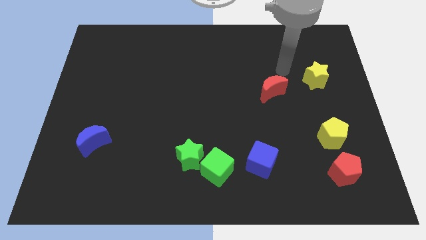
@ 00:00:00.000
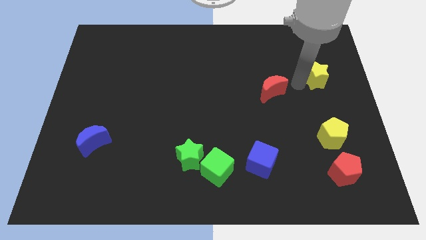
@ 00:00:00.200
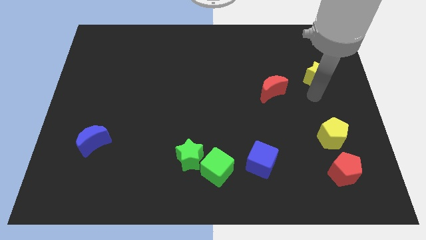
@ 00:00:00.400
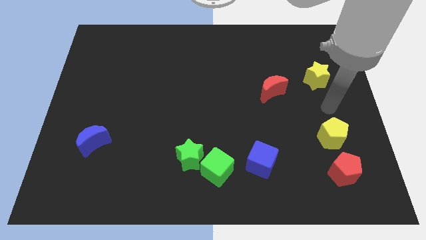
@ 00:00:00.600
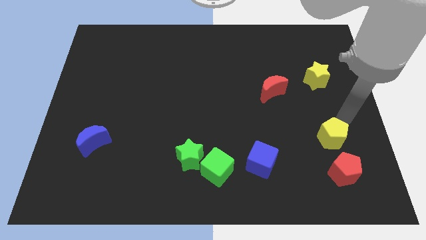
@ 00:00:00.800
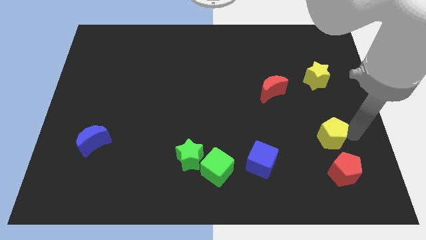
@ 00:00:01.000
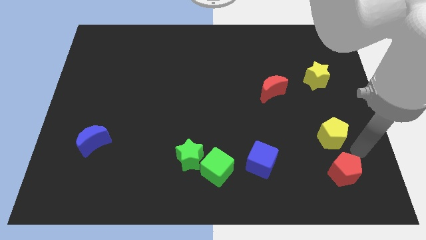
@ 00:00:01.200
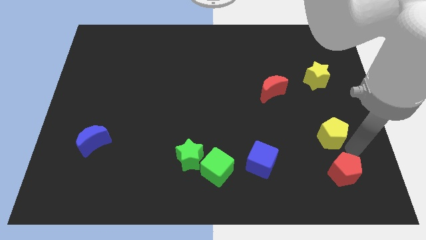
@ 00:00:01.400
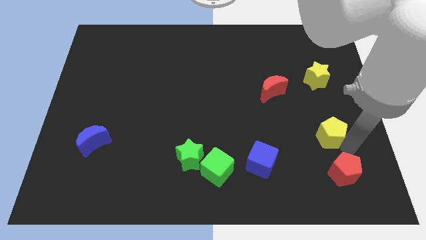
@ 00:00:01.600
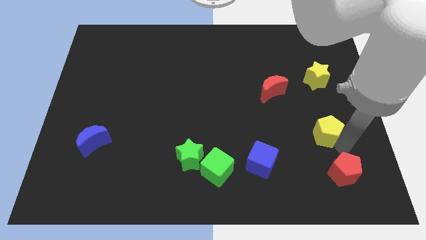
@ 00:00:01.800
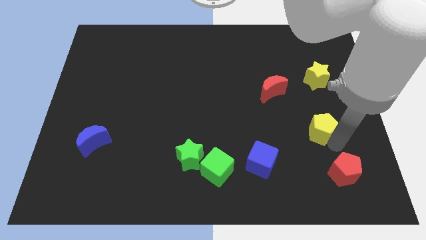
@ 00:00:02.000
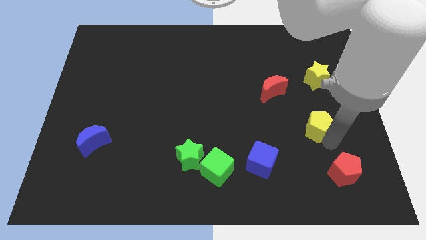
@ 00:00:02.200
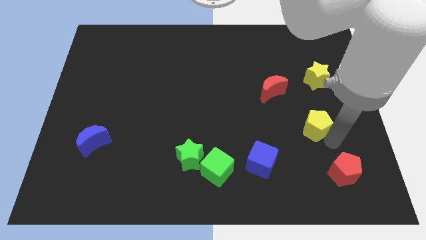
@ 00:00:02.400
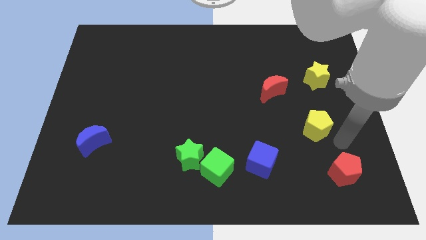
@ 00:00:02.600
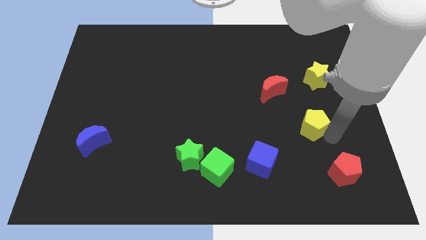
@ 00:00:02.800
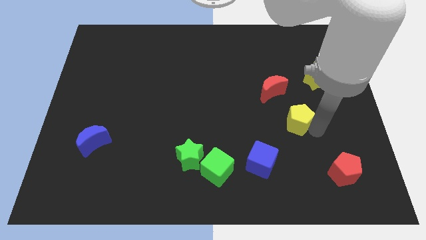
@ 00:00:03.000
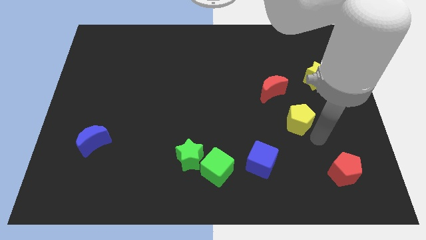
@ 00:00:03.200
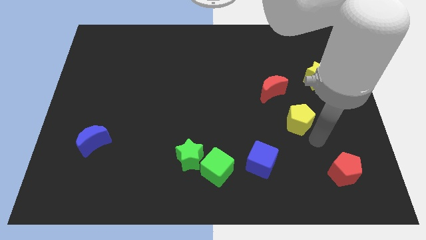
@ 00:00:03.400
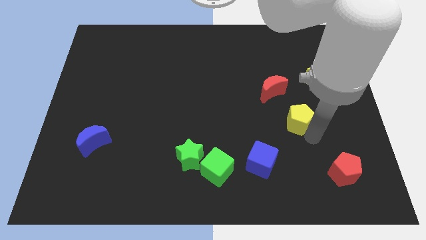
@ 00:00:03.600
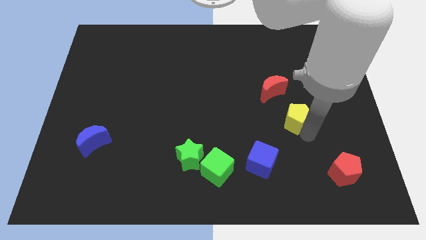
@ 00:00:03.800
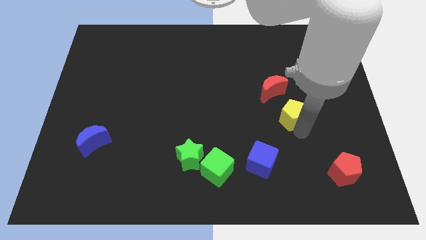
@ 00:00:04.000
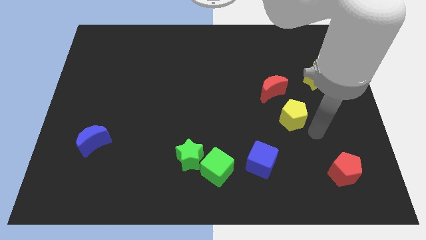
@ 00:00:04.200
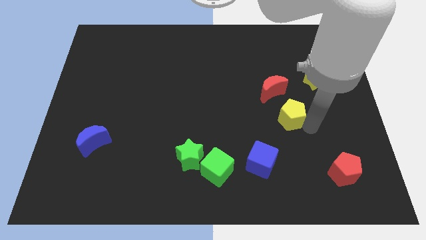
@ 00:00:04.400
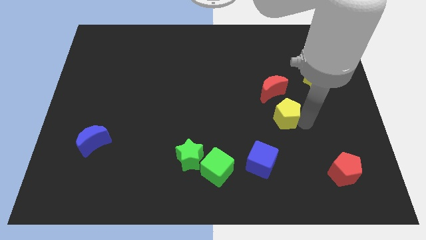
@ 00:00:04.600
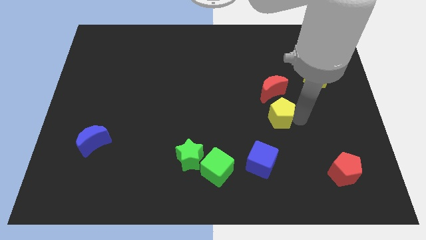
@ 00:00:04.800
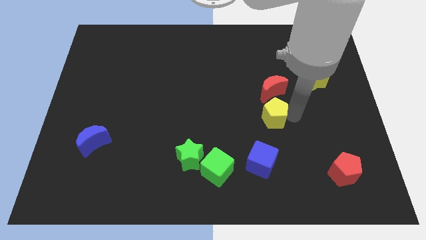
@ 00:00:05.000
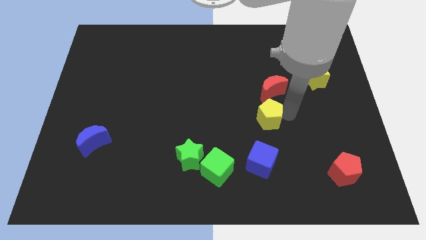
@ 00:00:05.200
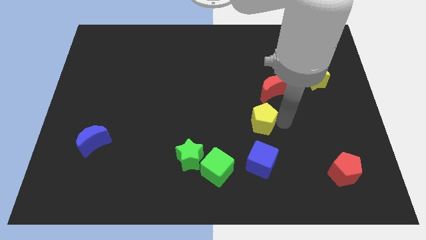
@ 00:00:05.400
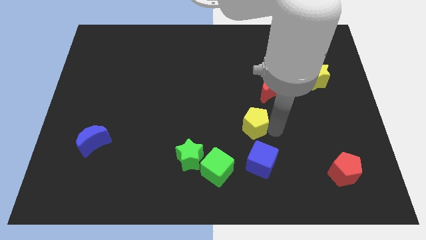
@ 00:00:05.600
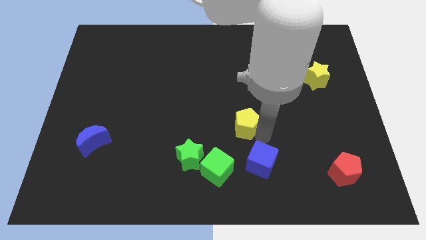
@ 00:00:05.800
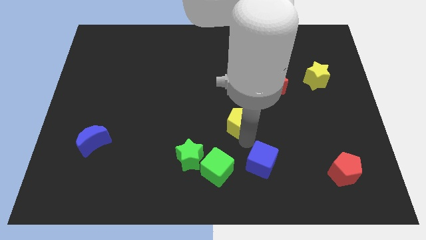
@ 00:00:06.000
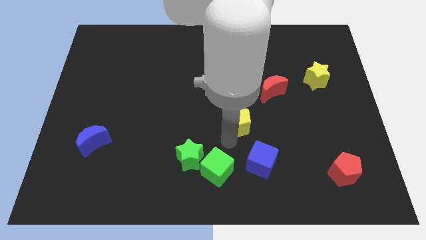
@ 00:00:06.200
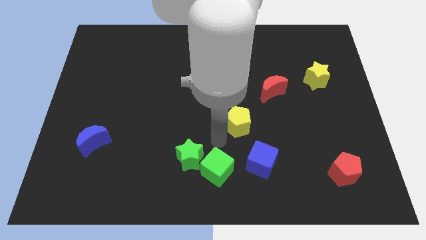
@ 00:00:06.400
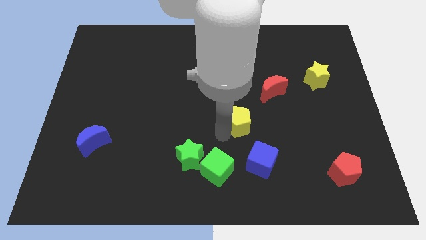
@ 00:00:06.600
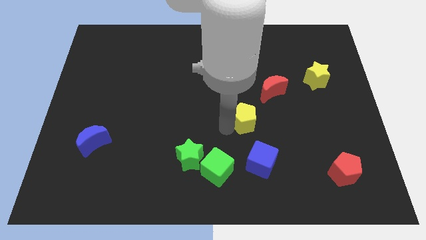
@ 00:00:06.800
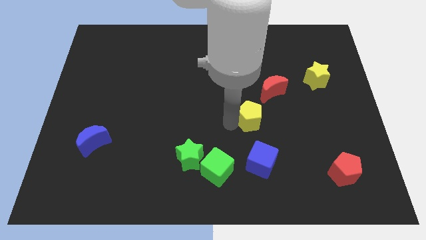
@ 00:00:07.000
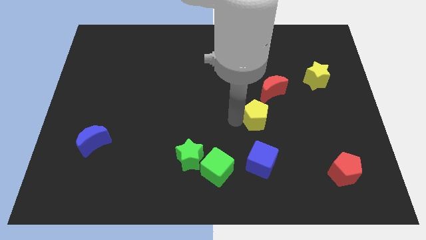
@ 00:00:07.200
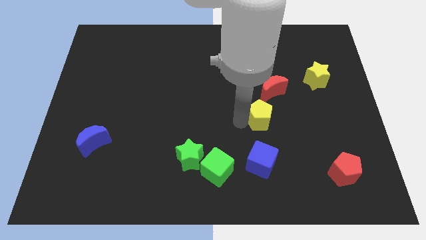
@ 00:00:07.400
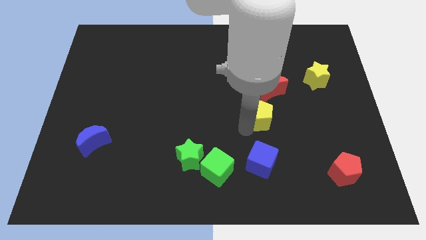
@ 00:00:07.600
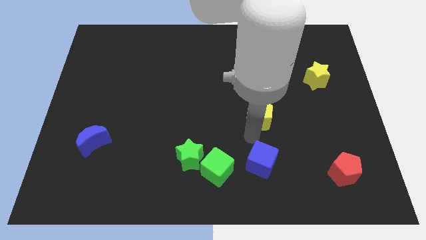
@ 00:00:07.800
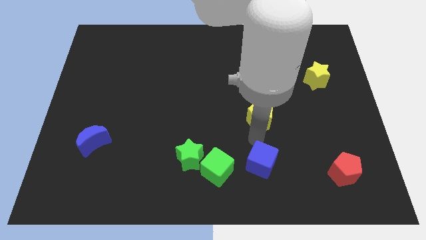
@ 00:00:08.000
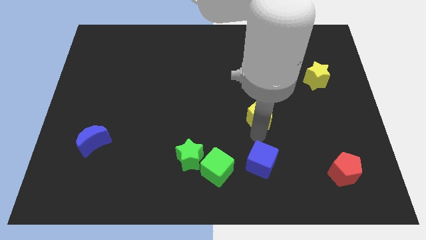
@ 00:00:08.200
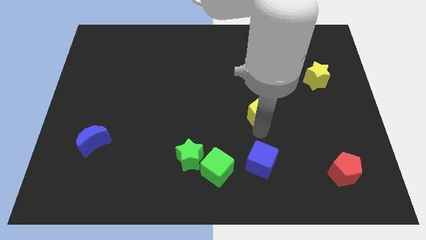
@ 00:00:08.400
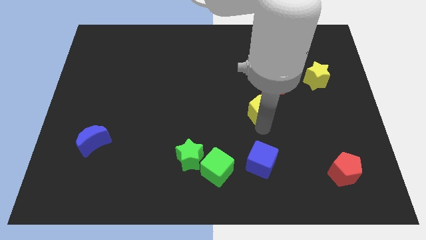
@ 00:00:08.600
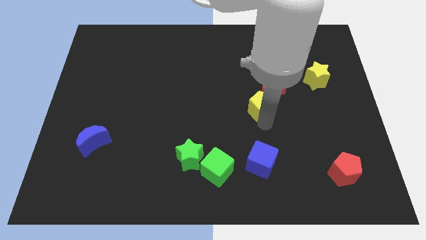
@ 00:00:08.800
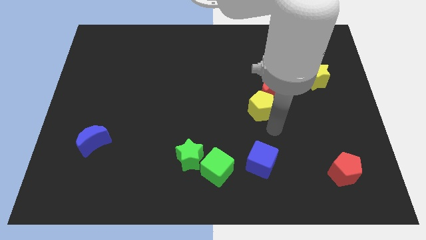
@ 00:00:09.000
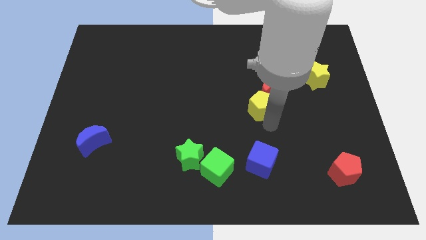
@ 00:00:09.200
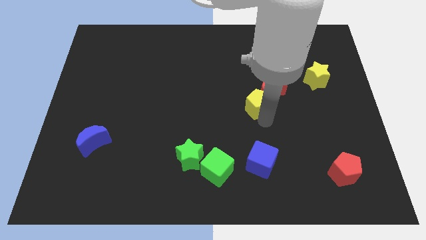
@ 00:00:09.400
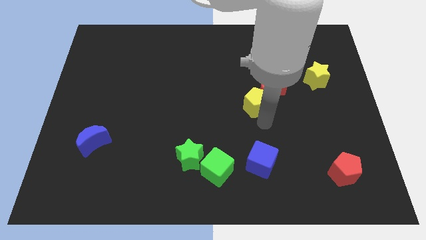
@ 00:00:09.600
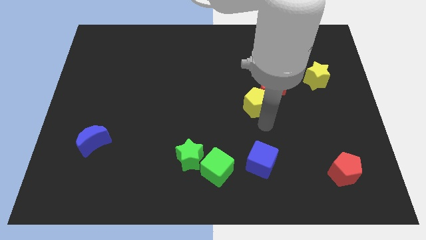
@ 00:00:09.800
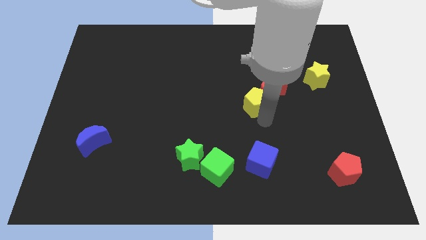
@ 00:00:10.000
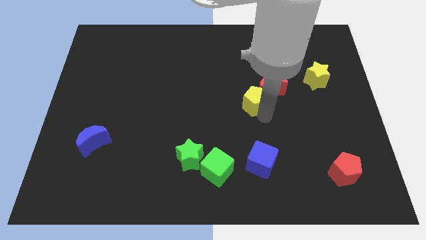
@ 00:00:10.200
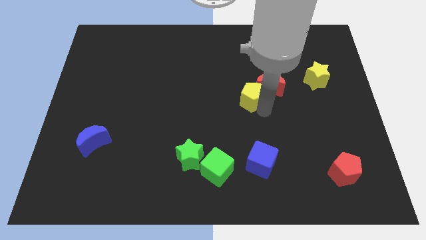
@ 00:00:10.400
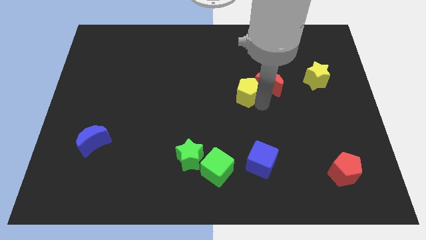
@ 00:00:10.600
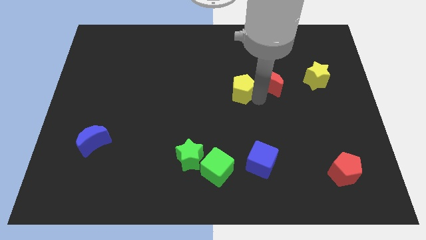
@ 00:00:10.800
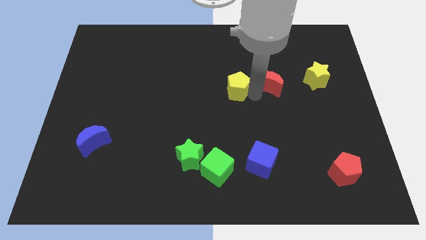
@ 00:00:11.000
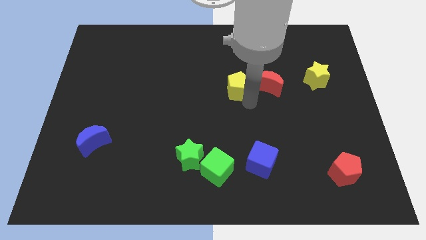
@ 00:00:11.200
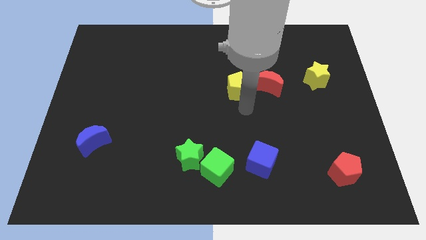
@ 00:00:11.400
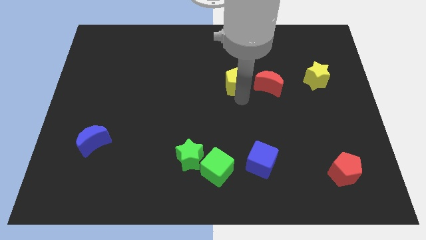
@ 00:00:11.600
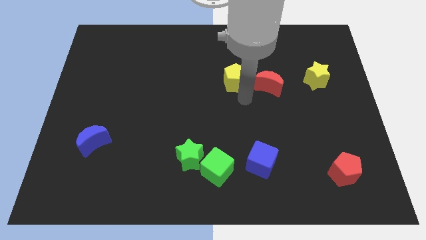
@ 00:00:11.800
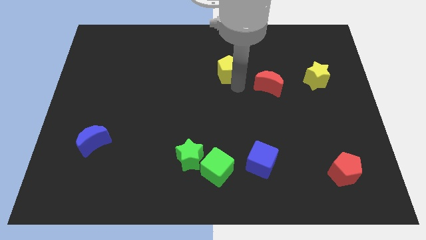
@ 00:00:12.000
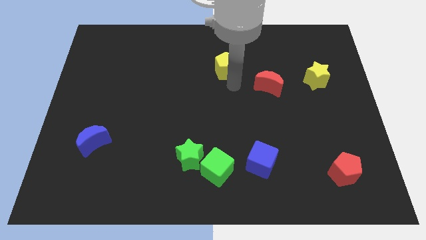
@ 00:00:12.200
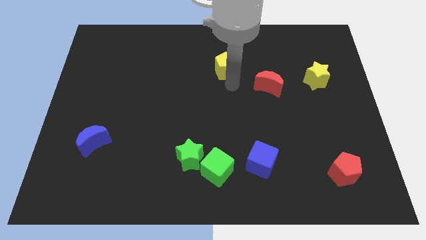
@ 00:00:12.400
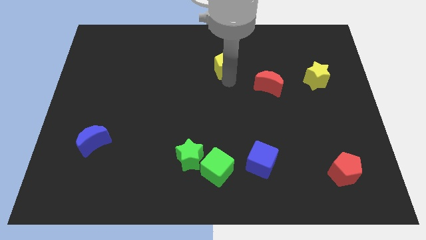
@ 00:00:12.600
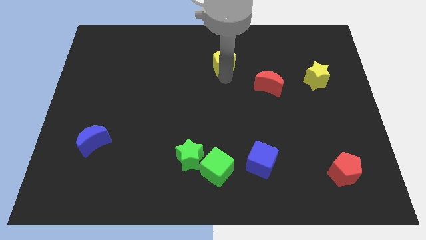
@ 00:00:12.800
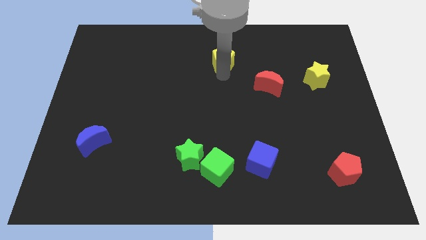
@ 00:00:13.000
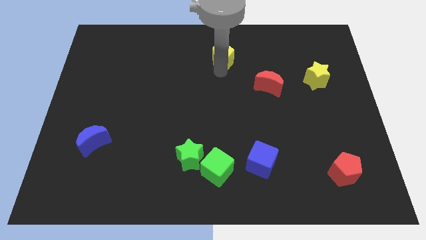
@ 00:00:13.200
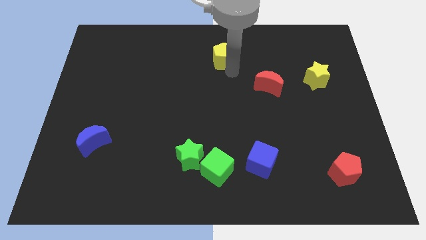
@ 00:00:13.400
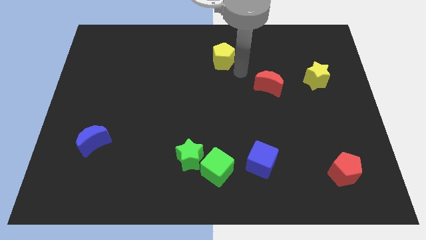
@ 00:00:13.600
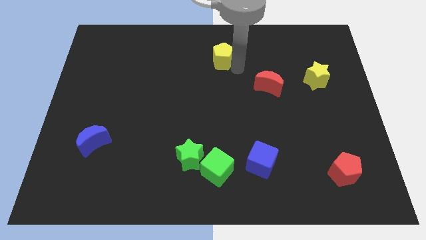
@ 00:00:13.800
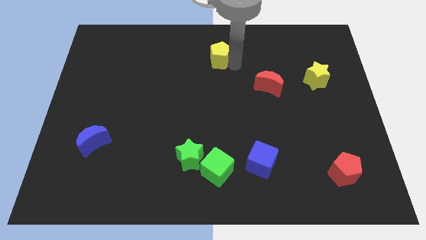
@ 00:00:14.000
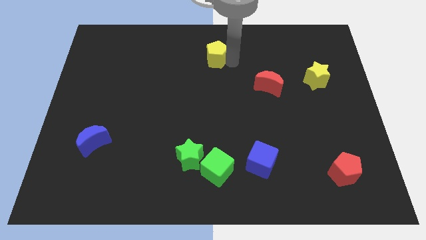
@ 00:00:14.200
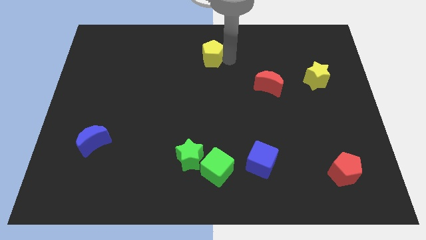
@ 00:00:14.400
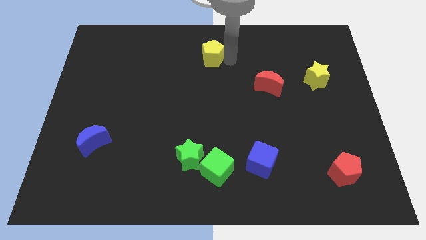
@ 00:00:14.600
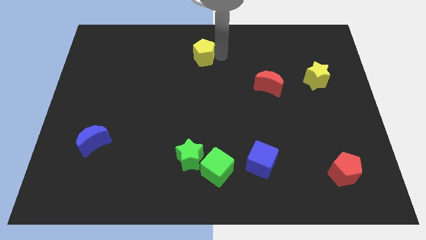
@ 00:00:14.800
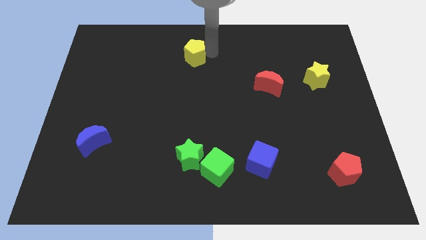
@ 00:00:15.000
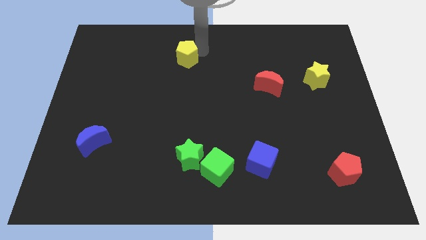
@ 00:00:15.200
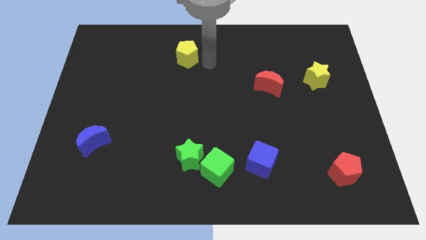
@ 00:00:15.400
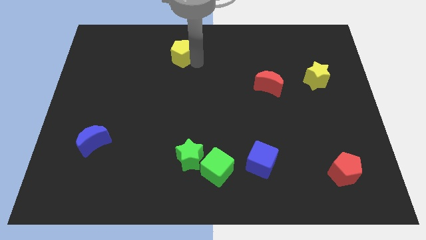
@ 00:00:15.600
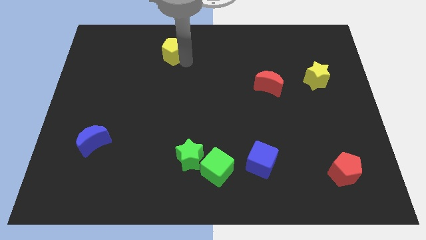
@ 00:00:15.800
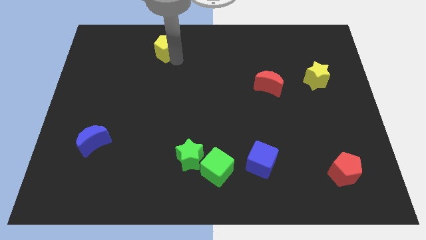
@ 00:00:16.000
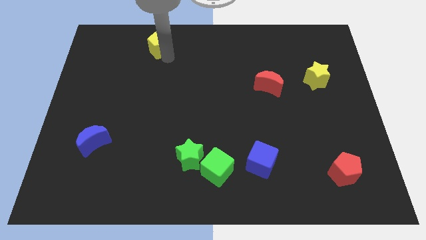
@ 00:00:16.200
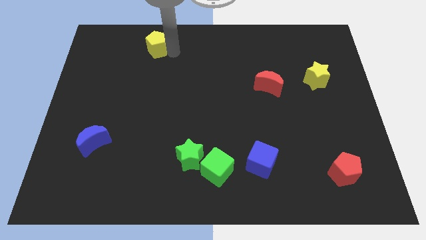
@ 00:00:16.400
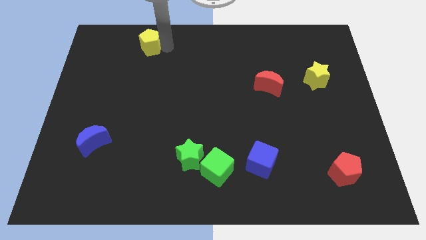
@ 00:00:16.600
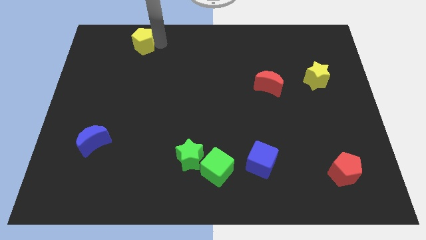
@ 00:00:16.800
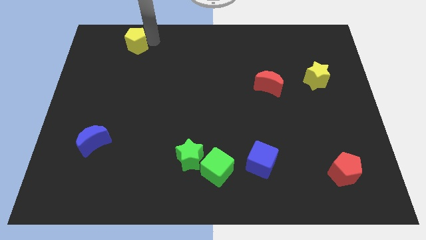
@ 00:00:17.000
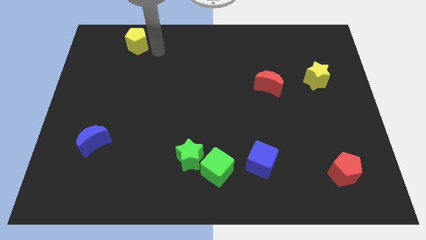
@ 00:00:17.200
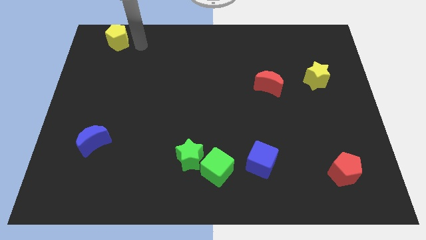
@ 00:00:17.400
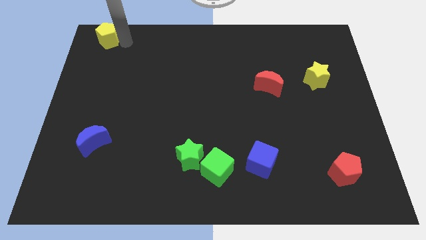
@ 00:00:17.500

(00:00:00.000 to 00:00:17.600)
push the yellow pentagon to the upper left corner
